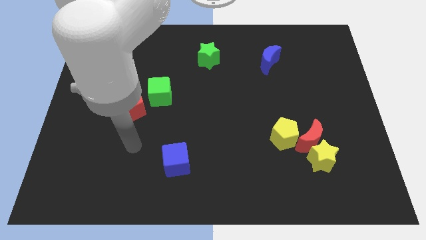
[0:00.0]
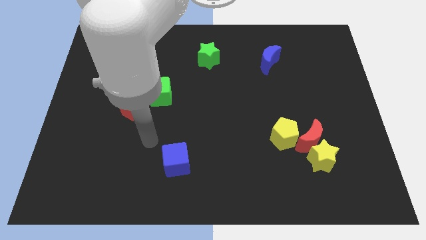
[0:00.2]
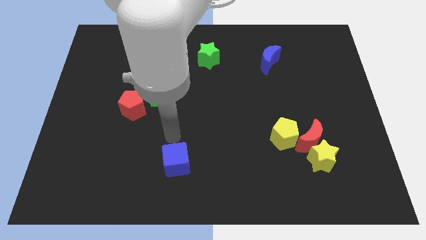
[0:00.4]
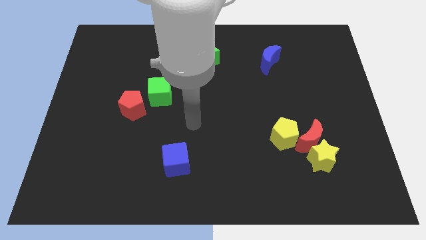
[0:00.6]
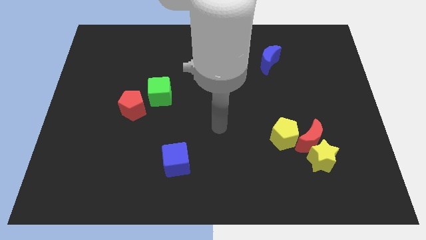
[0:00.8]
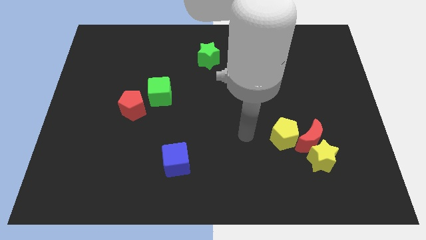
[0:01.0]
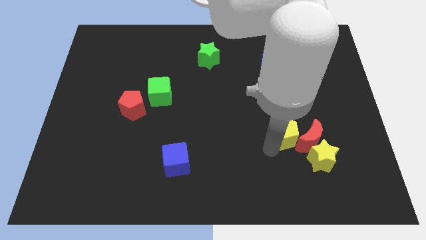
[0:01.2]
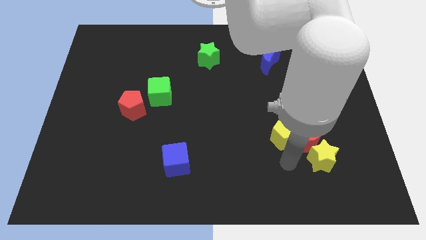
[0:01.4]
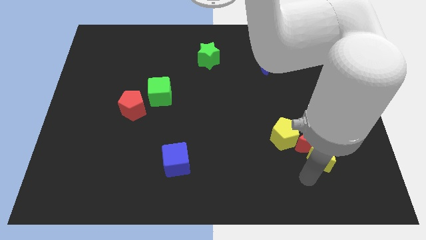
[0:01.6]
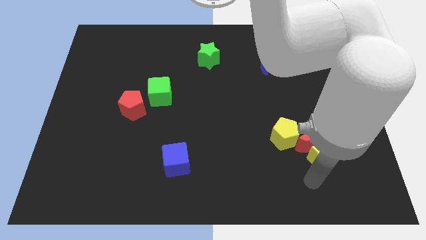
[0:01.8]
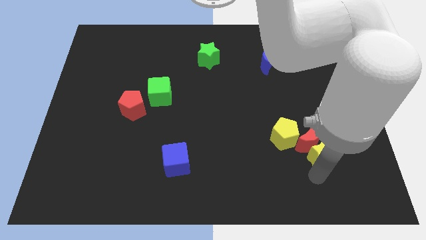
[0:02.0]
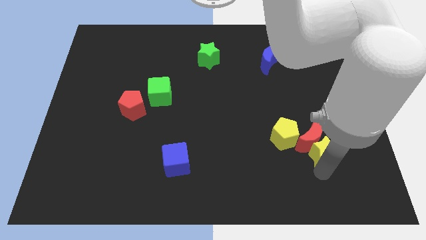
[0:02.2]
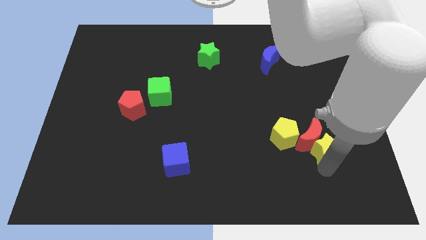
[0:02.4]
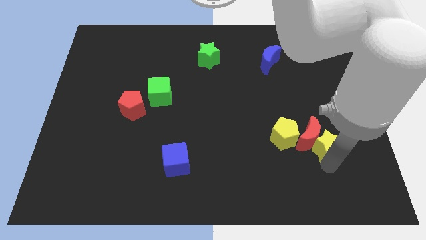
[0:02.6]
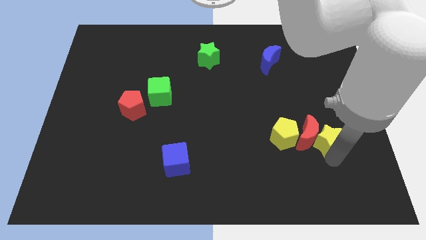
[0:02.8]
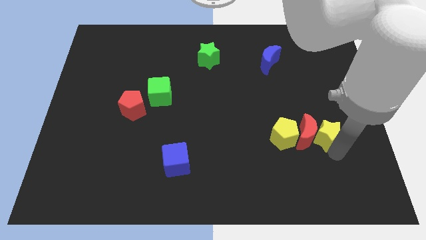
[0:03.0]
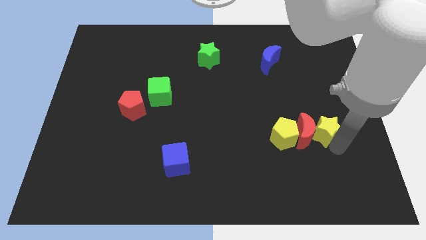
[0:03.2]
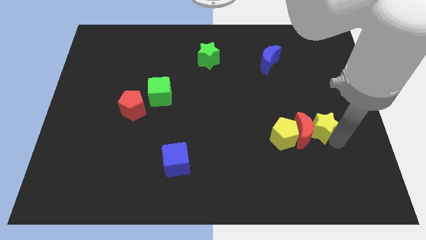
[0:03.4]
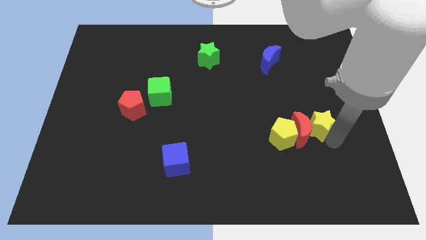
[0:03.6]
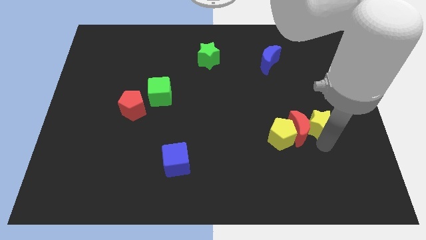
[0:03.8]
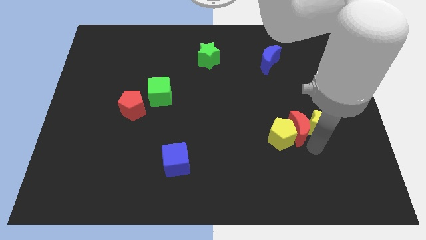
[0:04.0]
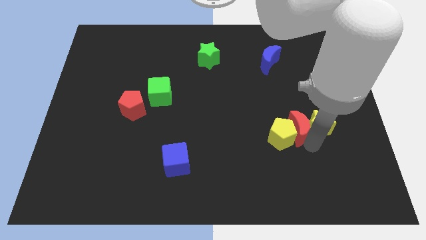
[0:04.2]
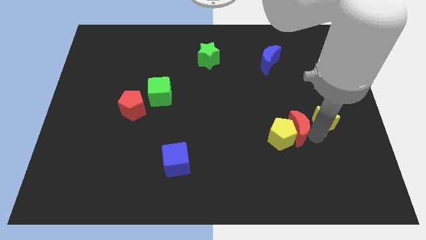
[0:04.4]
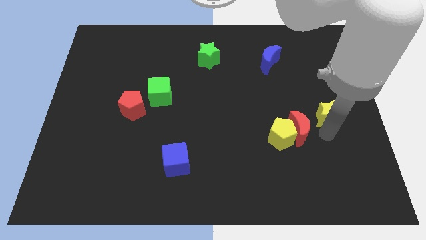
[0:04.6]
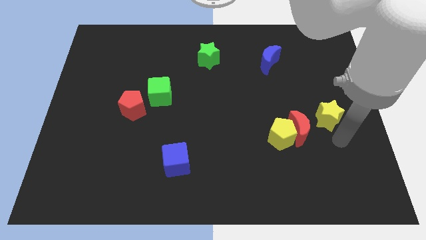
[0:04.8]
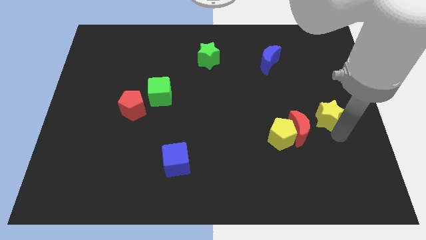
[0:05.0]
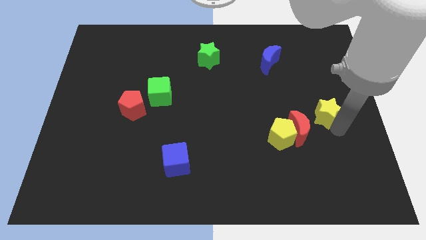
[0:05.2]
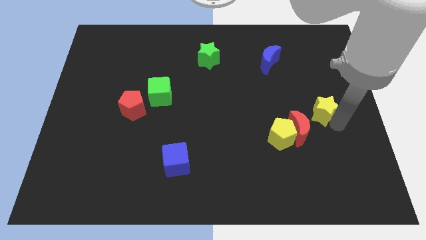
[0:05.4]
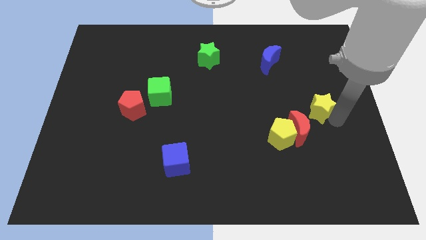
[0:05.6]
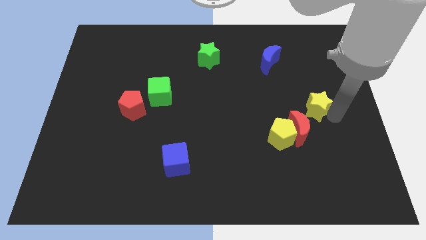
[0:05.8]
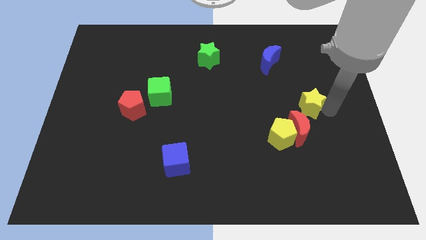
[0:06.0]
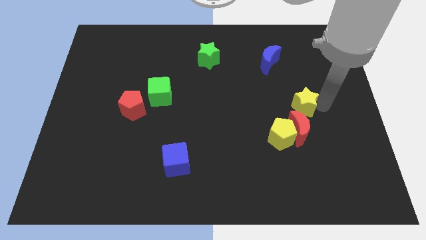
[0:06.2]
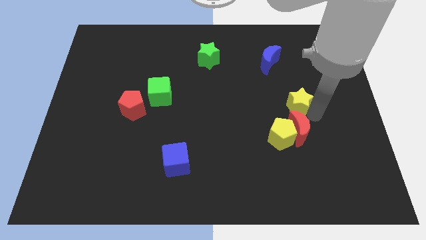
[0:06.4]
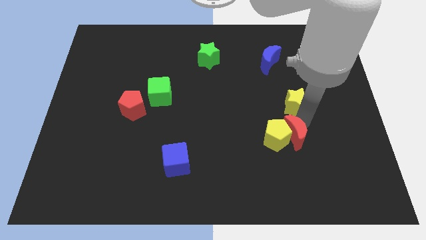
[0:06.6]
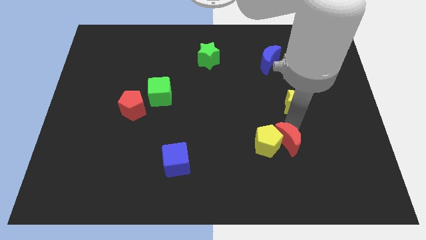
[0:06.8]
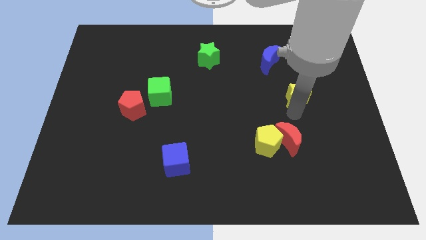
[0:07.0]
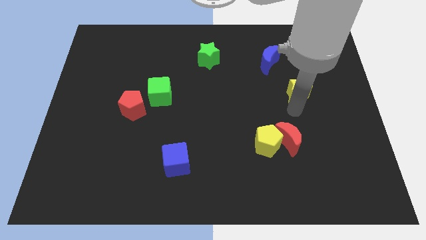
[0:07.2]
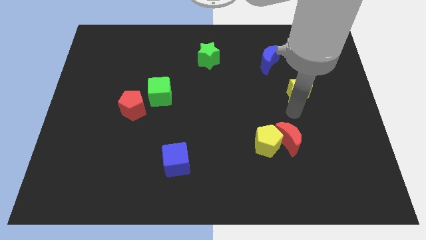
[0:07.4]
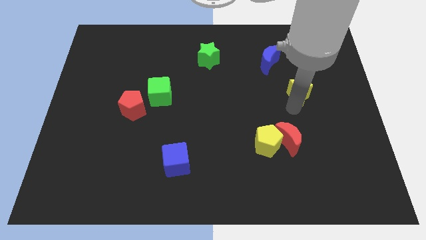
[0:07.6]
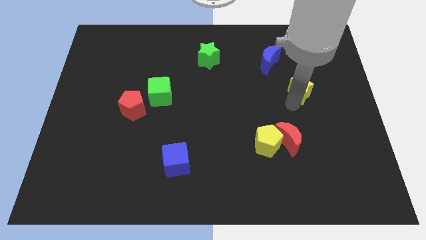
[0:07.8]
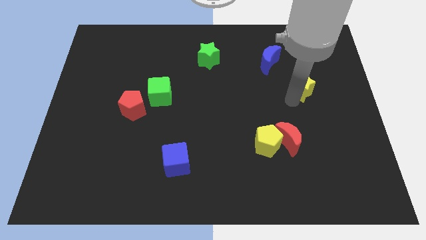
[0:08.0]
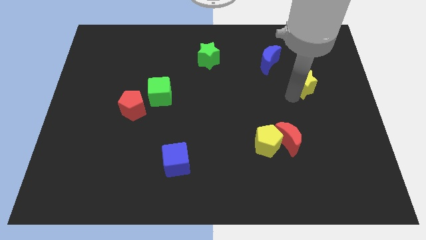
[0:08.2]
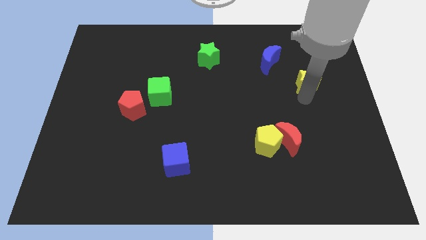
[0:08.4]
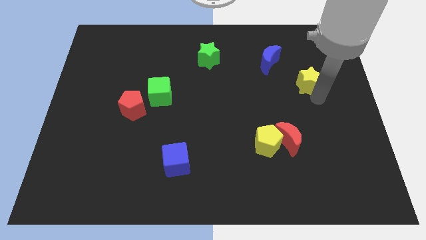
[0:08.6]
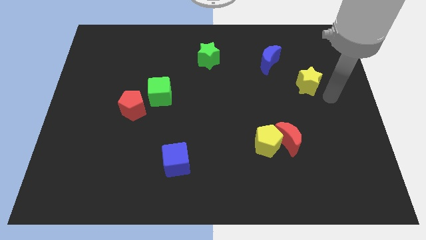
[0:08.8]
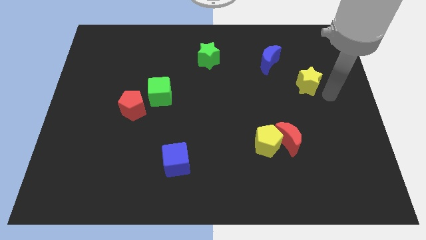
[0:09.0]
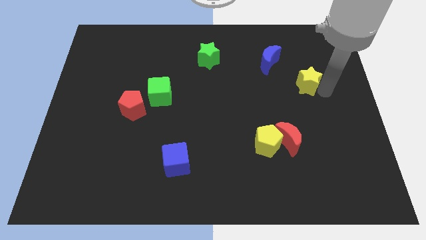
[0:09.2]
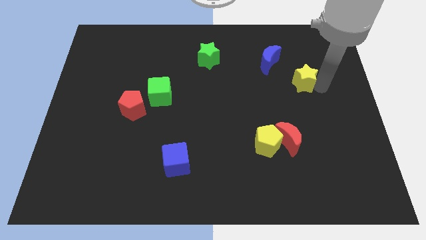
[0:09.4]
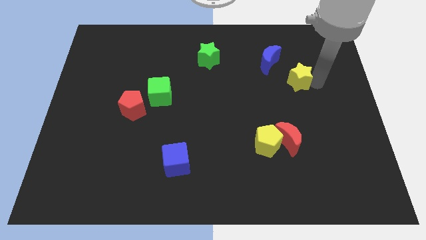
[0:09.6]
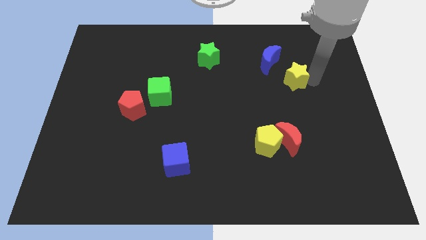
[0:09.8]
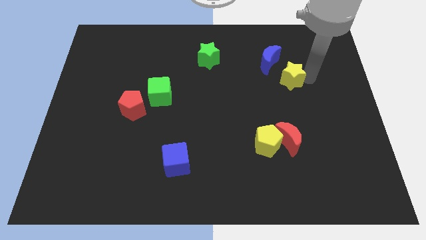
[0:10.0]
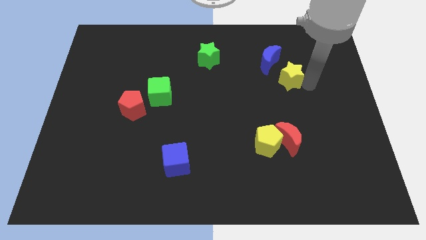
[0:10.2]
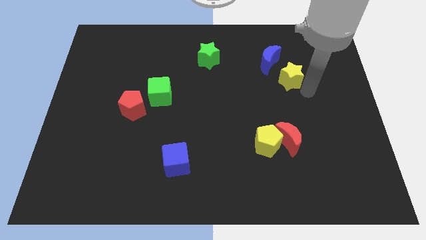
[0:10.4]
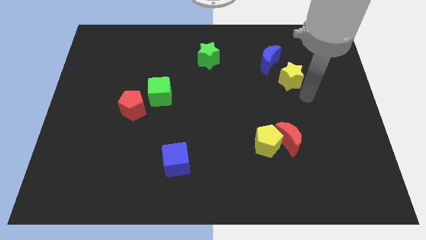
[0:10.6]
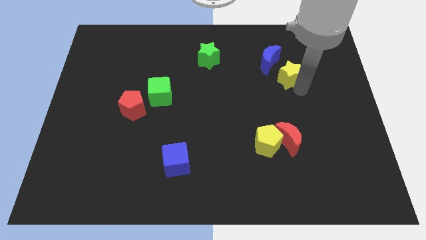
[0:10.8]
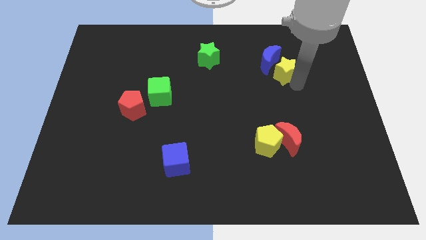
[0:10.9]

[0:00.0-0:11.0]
slide the yellow star towards the blue moon

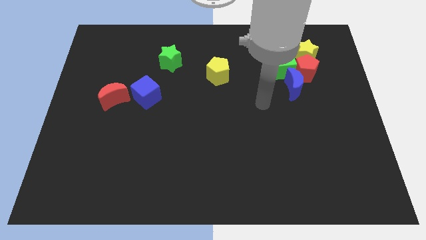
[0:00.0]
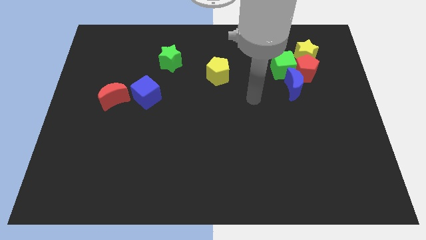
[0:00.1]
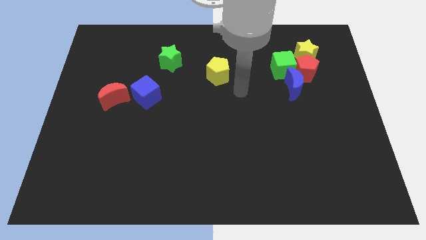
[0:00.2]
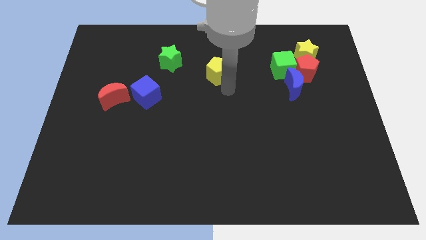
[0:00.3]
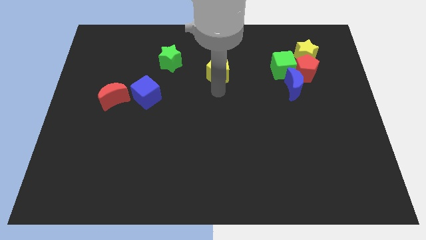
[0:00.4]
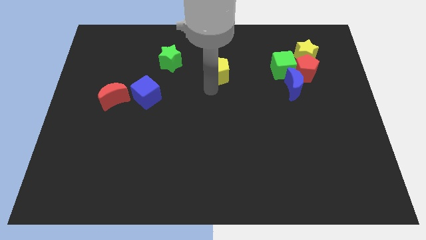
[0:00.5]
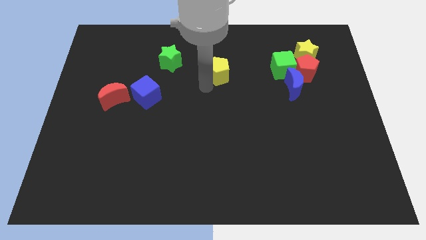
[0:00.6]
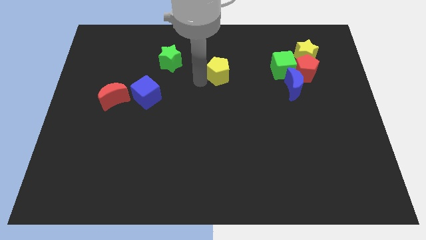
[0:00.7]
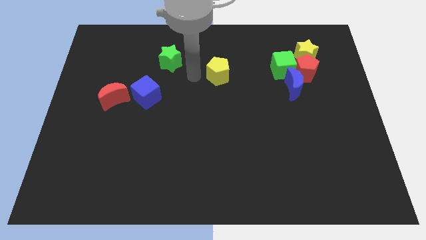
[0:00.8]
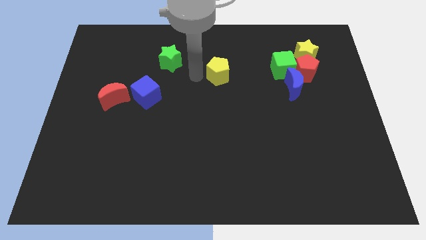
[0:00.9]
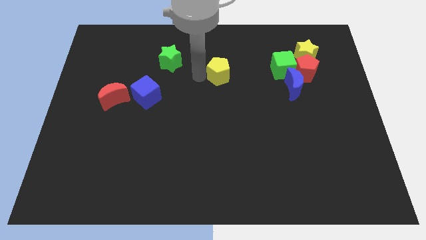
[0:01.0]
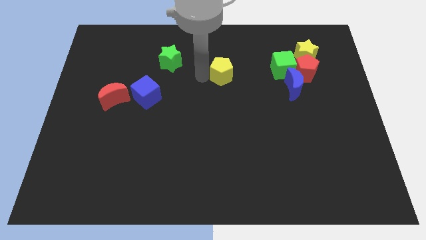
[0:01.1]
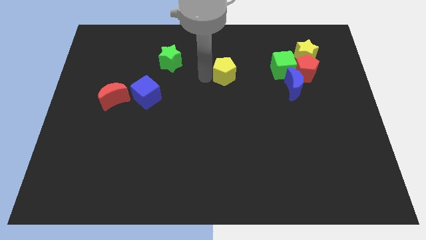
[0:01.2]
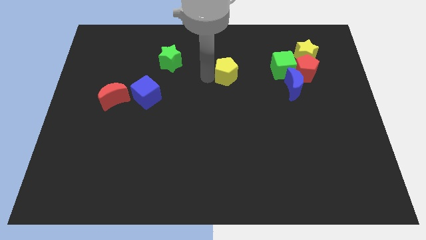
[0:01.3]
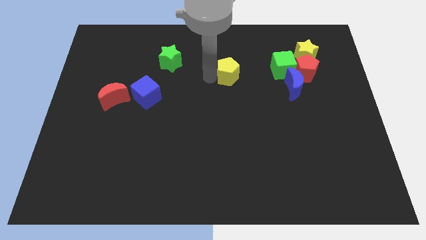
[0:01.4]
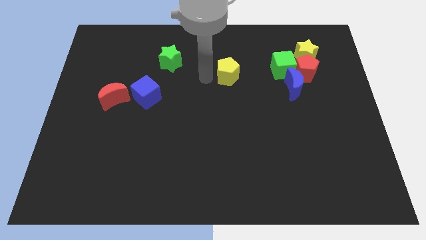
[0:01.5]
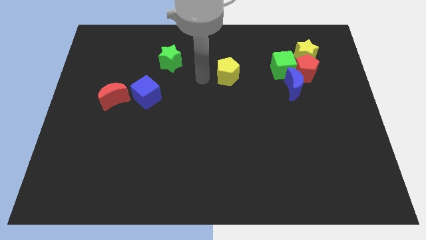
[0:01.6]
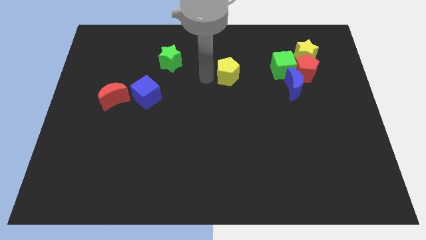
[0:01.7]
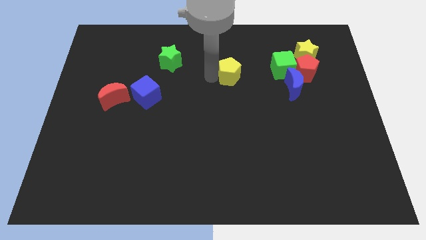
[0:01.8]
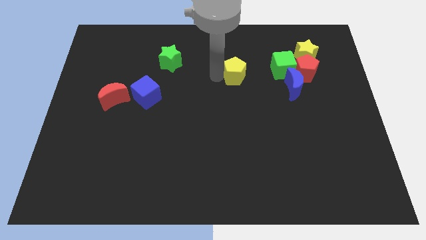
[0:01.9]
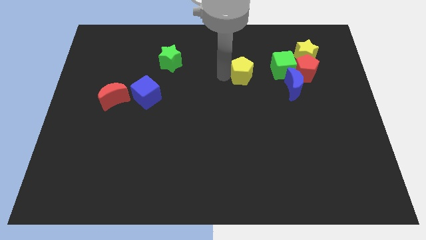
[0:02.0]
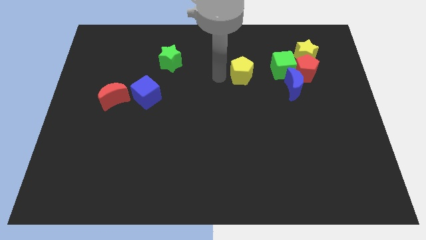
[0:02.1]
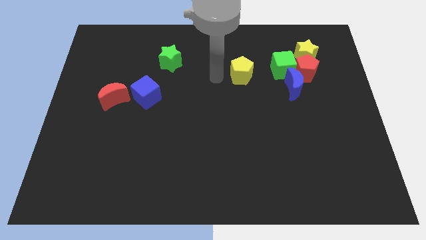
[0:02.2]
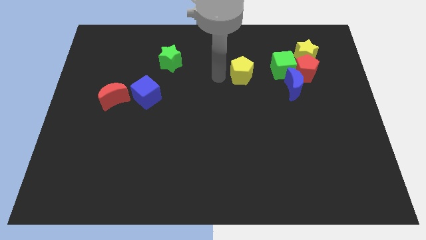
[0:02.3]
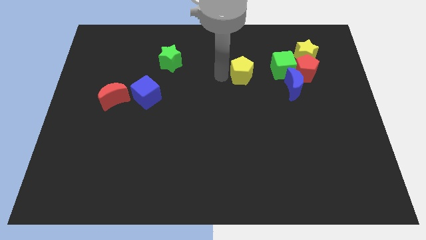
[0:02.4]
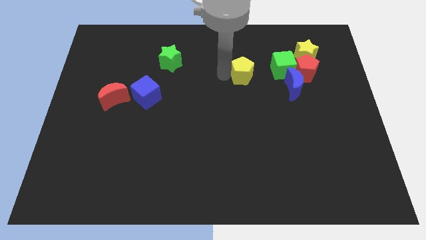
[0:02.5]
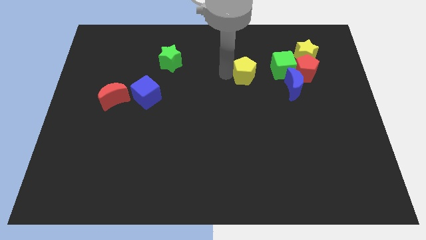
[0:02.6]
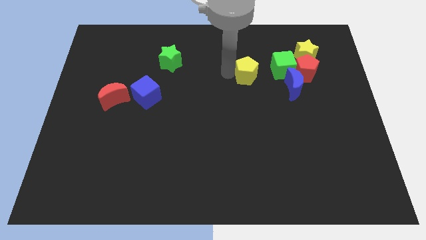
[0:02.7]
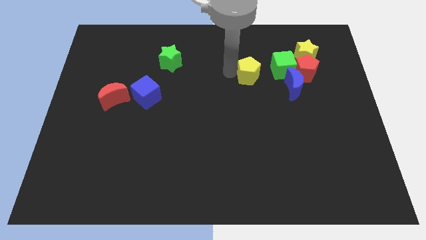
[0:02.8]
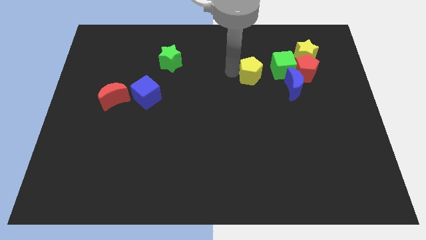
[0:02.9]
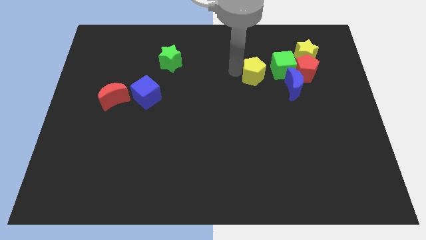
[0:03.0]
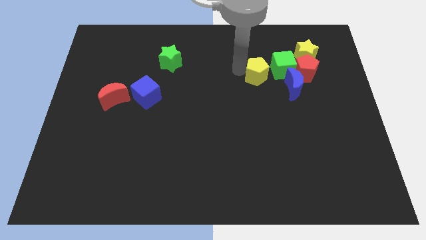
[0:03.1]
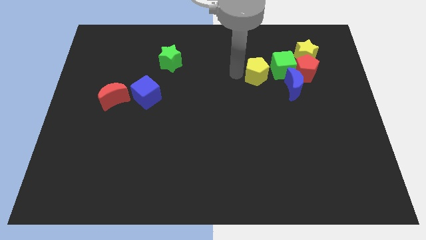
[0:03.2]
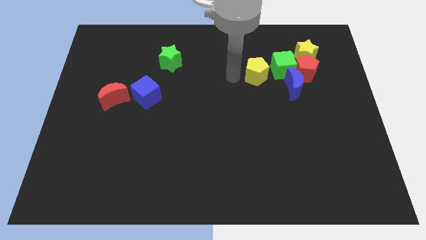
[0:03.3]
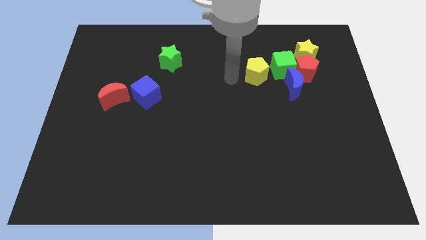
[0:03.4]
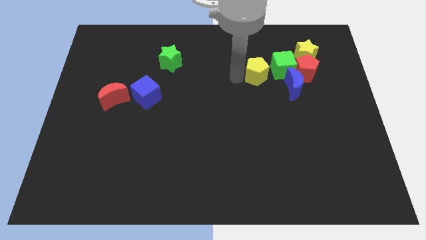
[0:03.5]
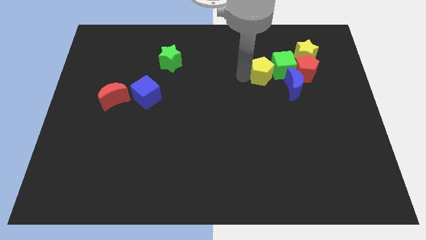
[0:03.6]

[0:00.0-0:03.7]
put the yellow pentagon close to the green cube
